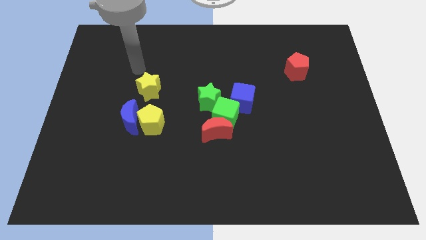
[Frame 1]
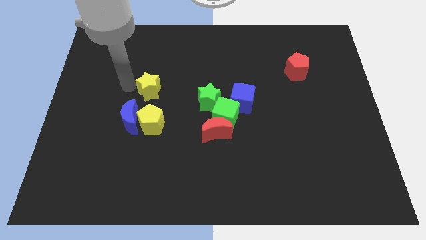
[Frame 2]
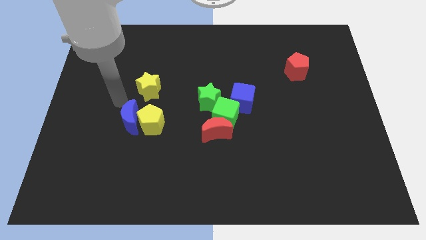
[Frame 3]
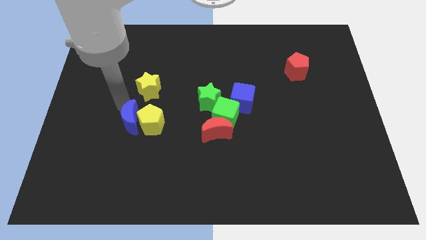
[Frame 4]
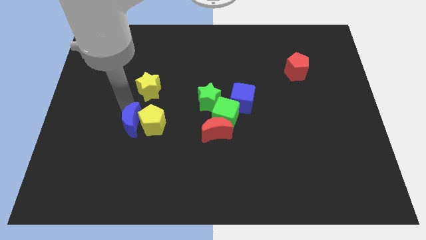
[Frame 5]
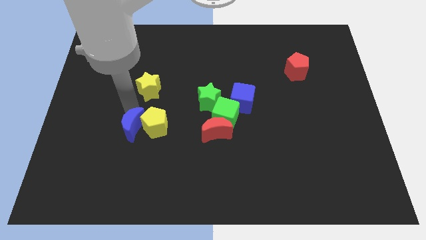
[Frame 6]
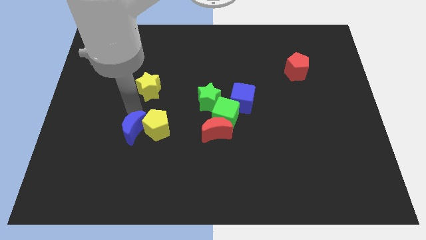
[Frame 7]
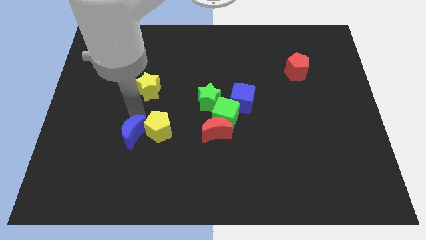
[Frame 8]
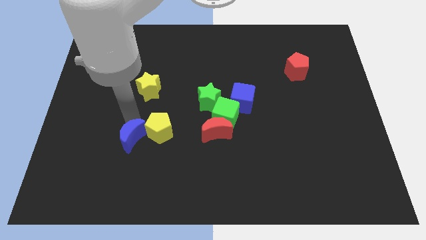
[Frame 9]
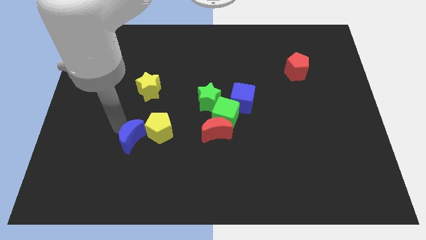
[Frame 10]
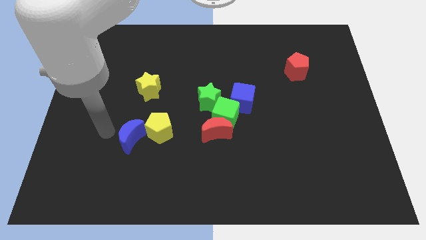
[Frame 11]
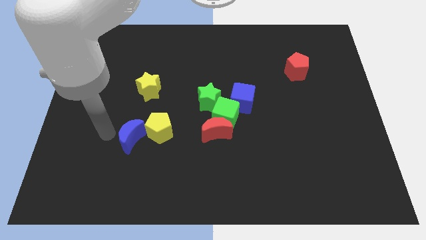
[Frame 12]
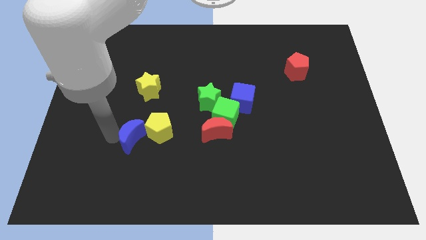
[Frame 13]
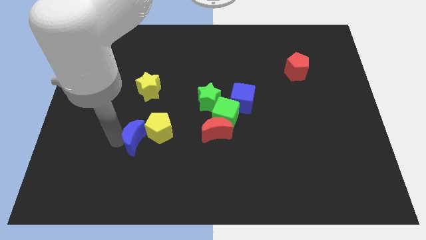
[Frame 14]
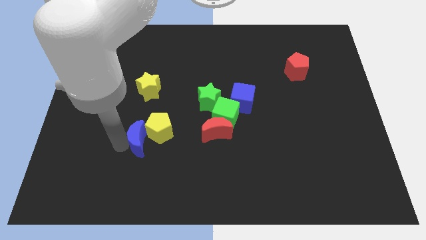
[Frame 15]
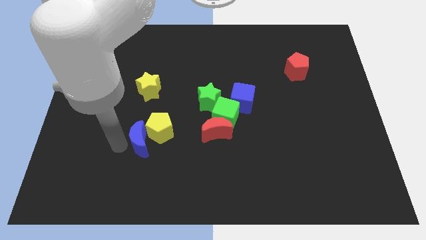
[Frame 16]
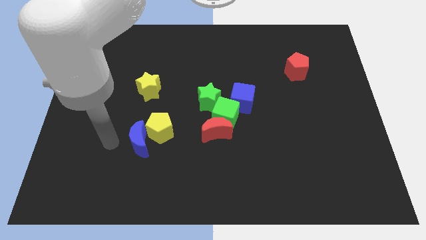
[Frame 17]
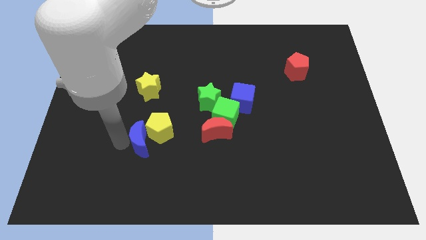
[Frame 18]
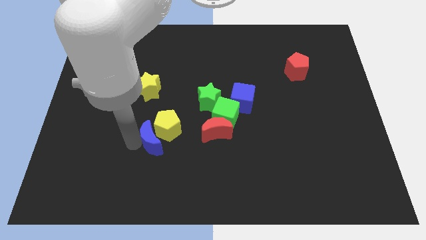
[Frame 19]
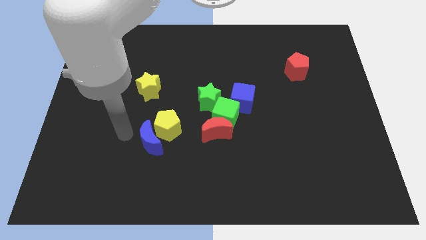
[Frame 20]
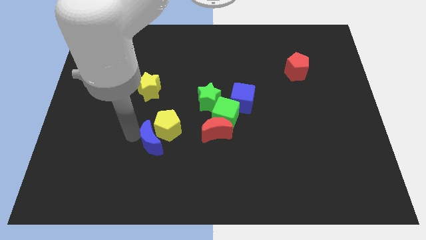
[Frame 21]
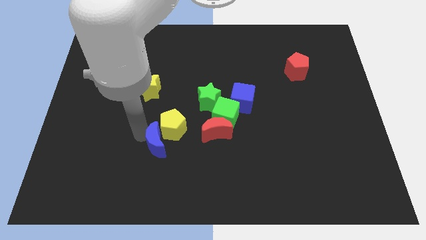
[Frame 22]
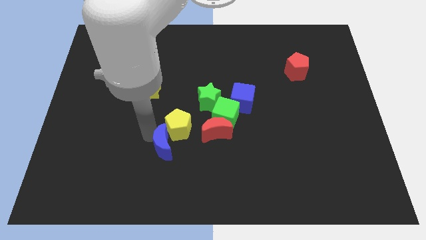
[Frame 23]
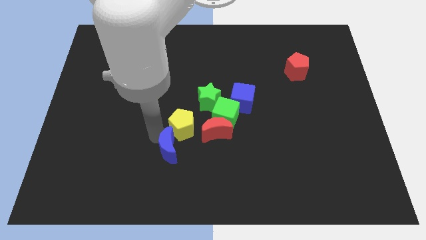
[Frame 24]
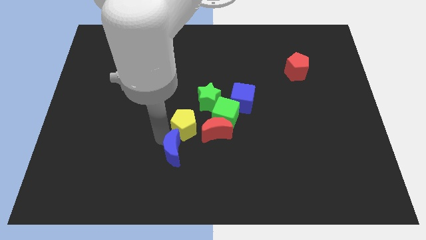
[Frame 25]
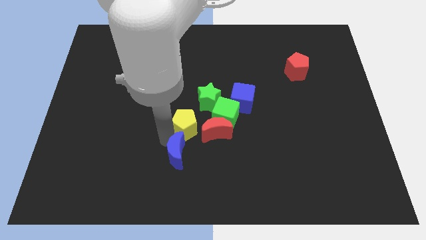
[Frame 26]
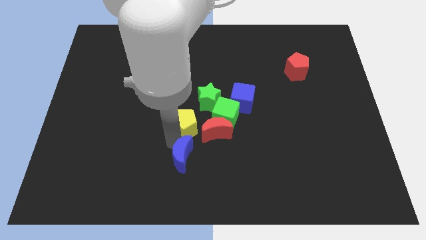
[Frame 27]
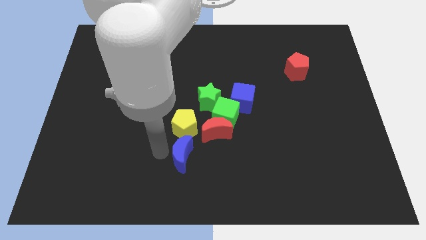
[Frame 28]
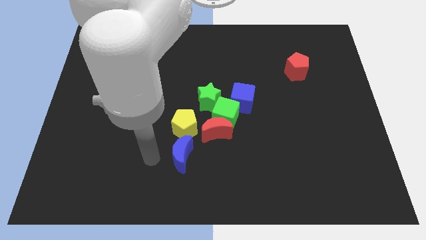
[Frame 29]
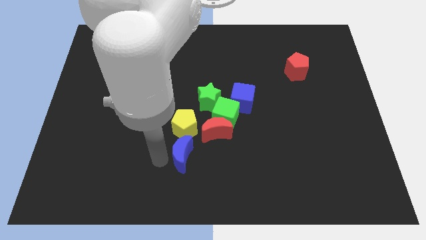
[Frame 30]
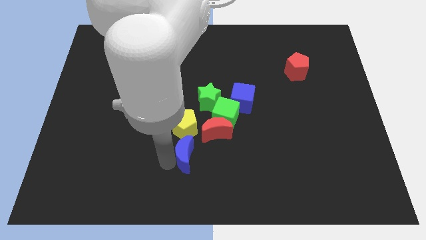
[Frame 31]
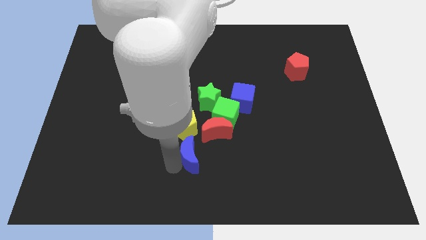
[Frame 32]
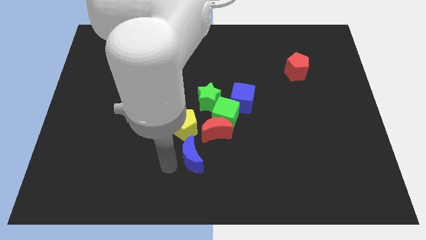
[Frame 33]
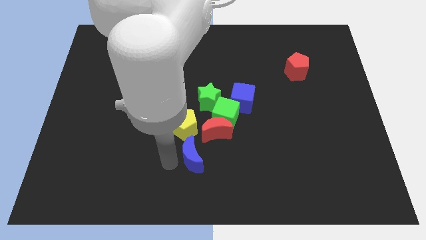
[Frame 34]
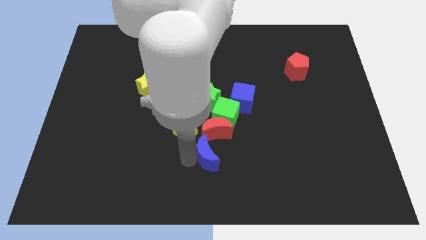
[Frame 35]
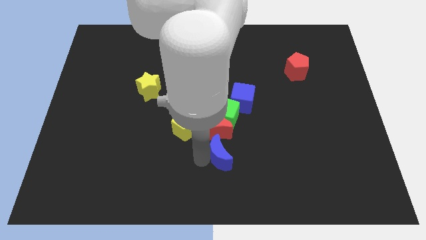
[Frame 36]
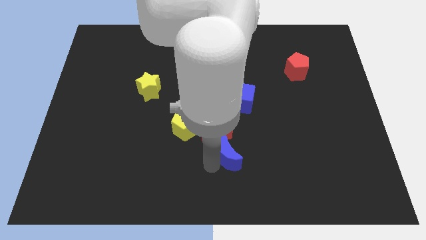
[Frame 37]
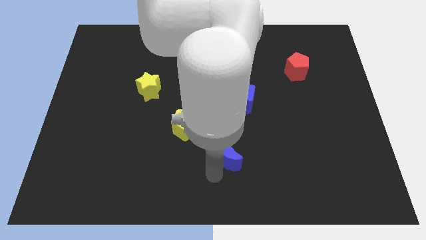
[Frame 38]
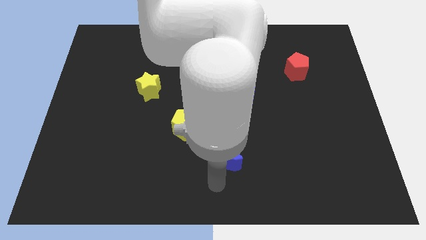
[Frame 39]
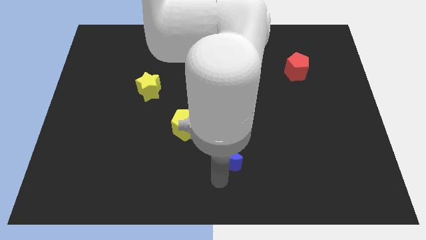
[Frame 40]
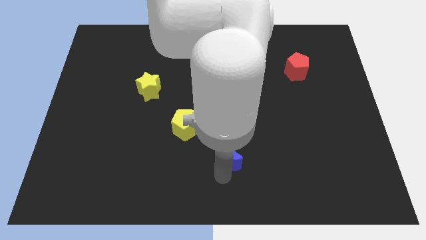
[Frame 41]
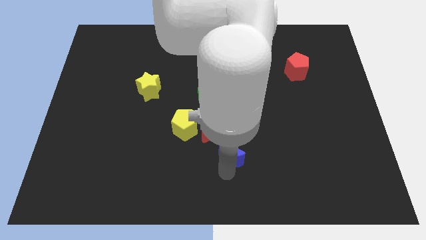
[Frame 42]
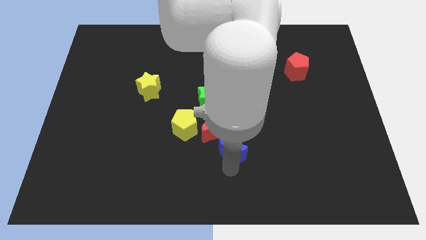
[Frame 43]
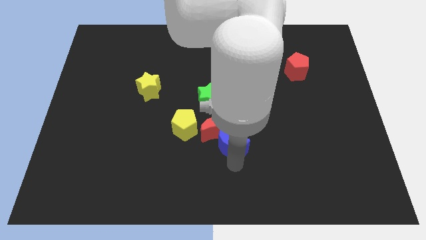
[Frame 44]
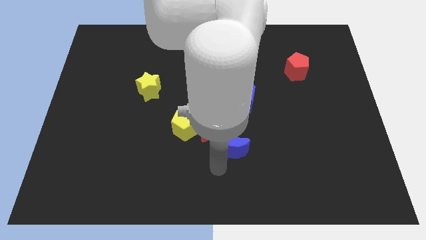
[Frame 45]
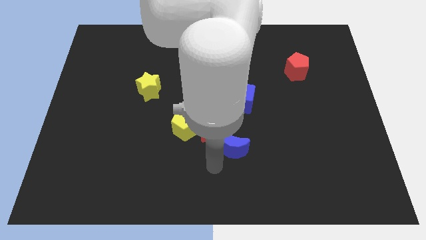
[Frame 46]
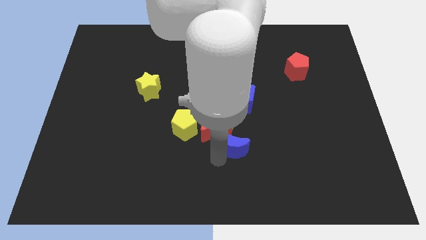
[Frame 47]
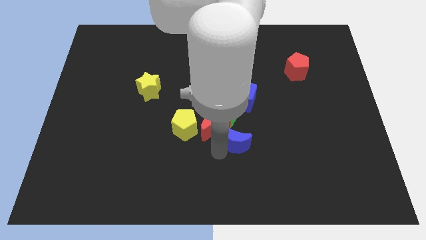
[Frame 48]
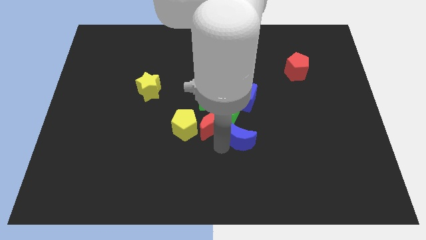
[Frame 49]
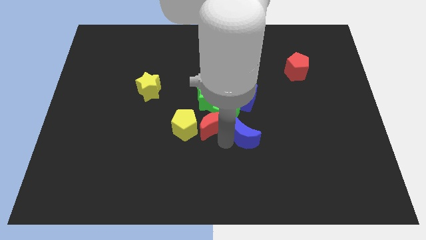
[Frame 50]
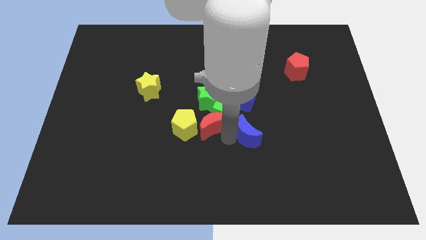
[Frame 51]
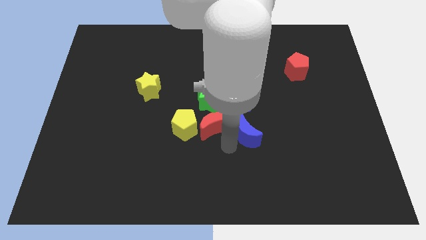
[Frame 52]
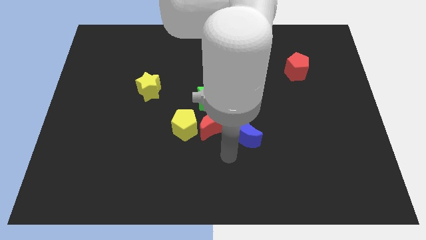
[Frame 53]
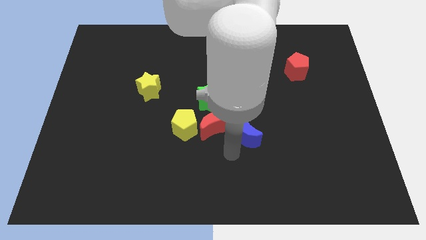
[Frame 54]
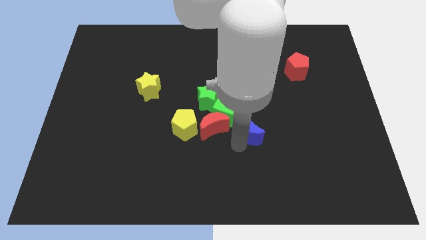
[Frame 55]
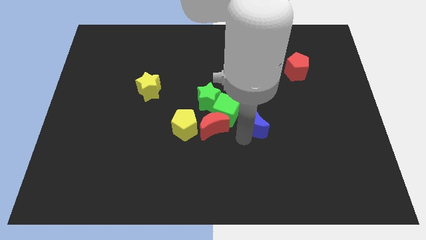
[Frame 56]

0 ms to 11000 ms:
put the blue moon just right of the green cube

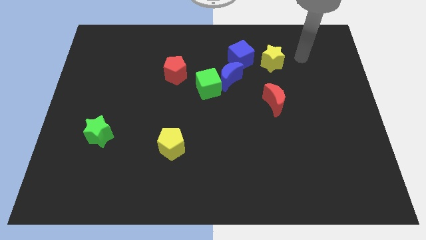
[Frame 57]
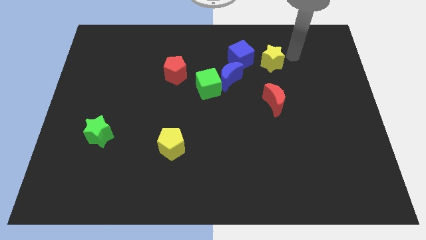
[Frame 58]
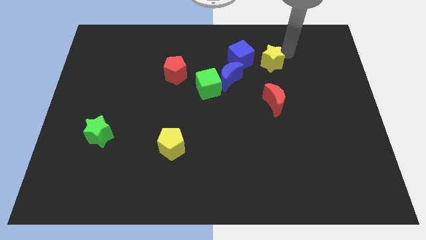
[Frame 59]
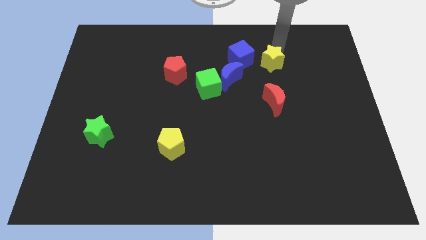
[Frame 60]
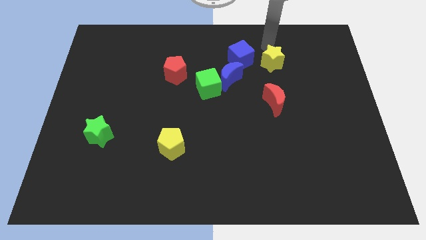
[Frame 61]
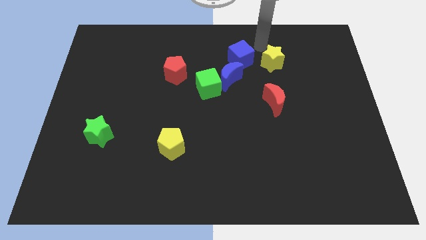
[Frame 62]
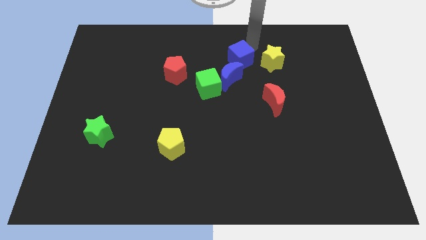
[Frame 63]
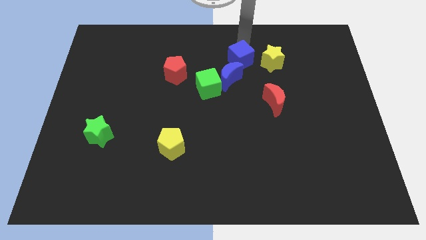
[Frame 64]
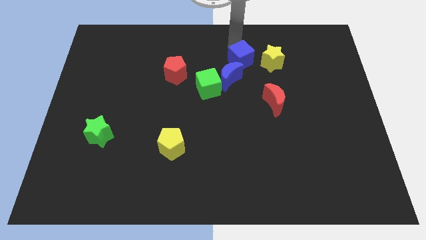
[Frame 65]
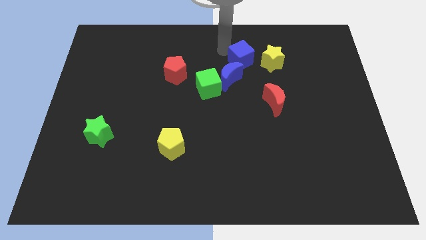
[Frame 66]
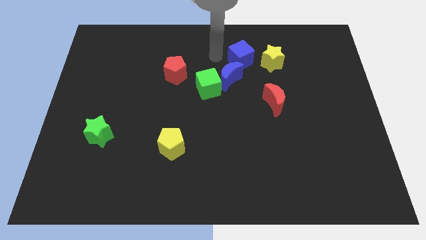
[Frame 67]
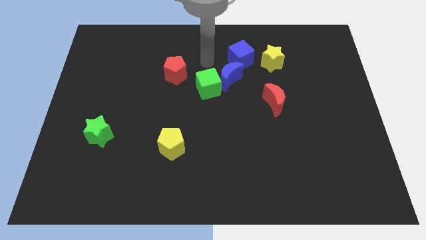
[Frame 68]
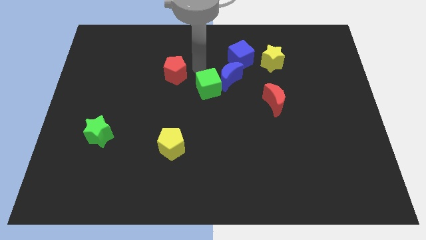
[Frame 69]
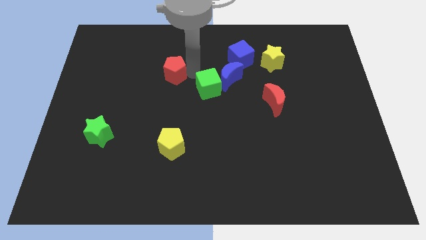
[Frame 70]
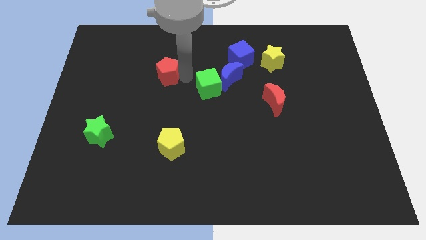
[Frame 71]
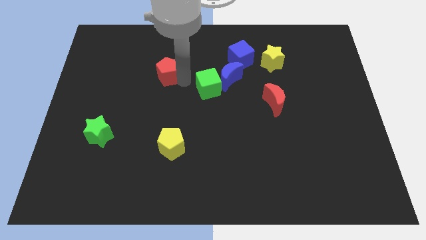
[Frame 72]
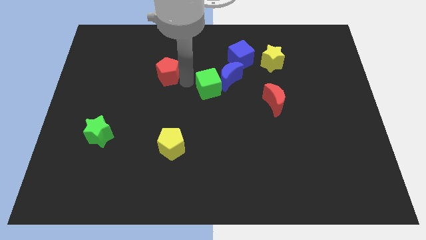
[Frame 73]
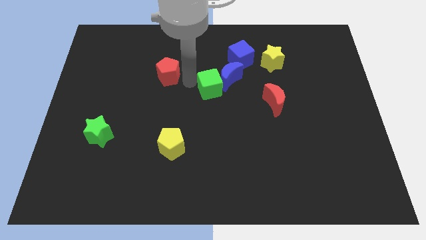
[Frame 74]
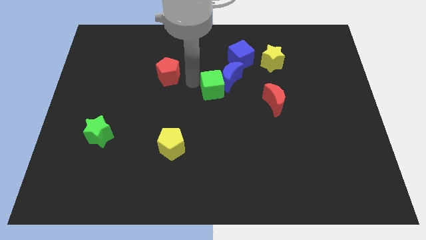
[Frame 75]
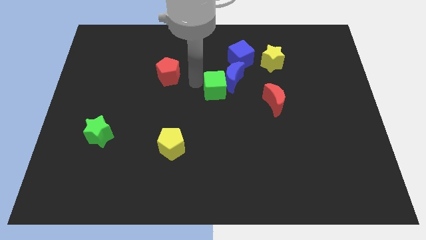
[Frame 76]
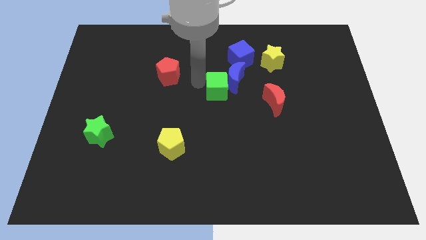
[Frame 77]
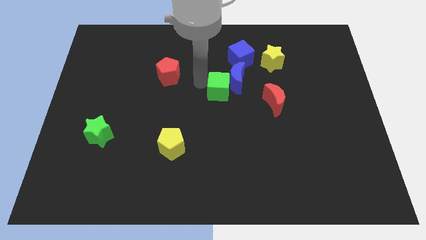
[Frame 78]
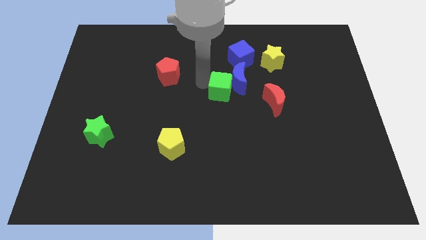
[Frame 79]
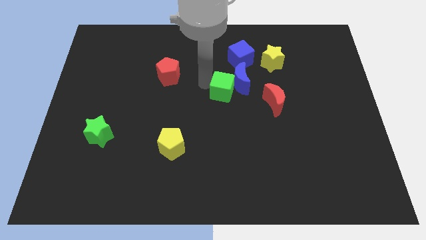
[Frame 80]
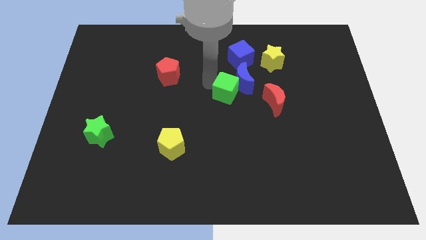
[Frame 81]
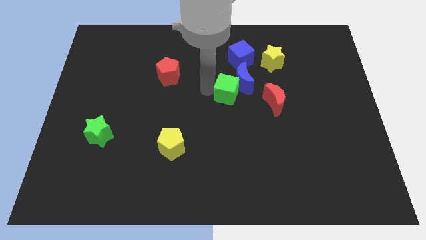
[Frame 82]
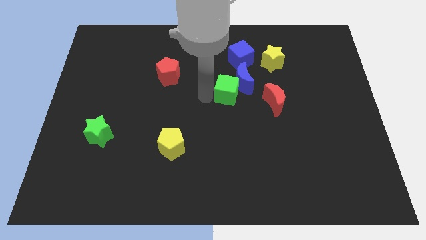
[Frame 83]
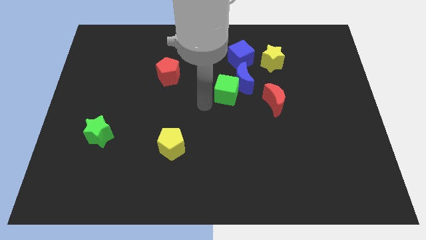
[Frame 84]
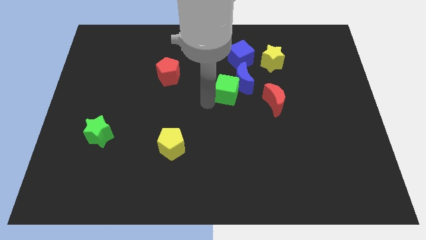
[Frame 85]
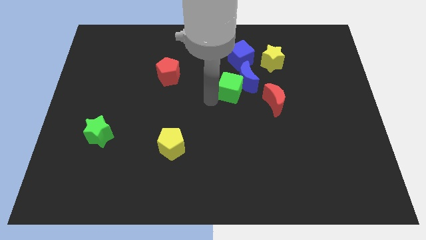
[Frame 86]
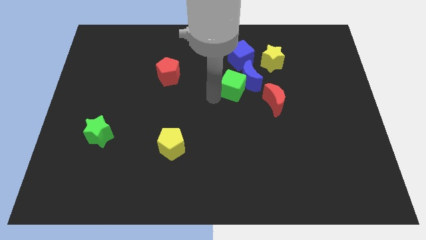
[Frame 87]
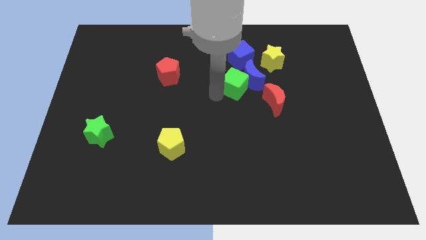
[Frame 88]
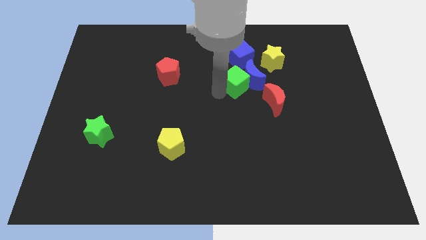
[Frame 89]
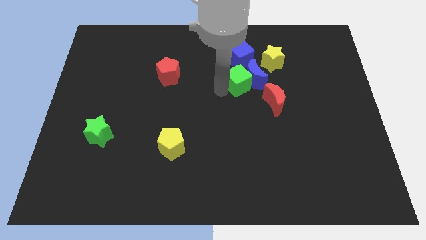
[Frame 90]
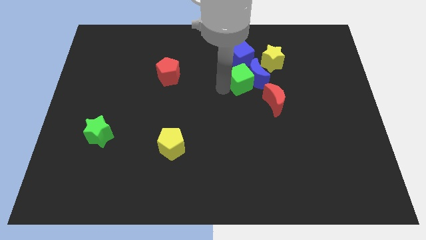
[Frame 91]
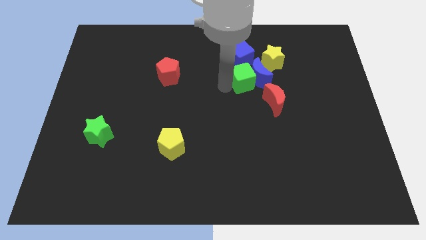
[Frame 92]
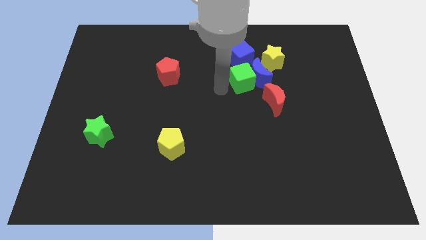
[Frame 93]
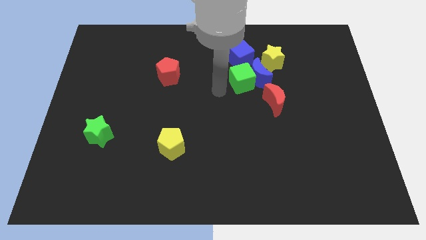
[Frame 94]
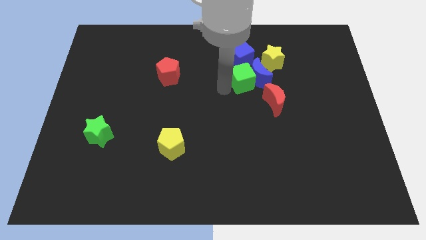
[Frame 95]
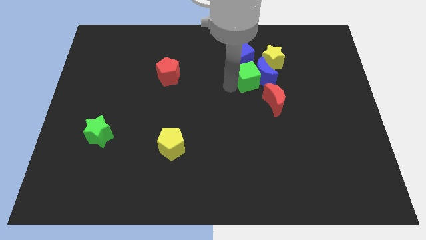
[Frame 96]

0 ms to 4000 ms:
put the green cube to the bottom right side of the blue cube
